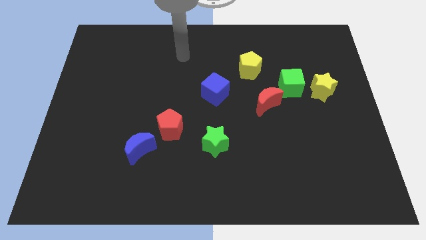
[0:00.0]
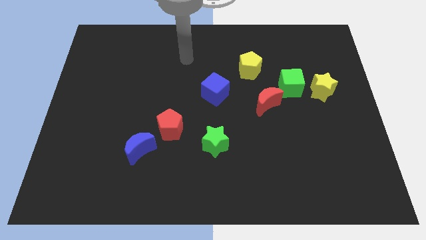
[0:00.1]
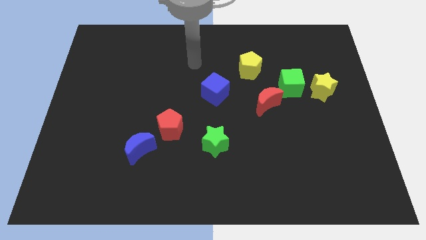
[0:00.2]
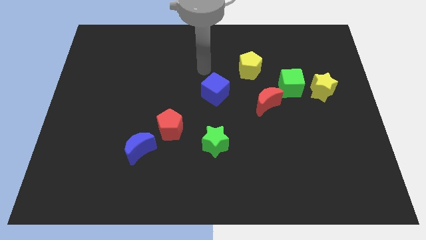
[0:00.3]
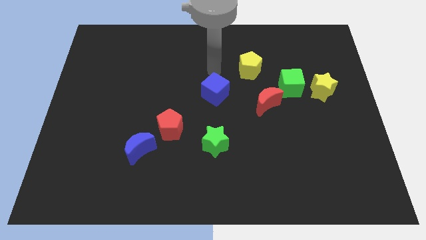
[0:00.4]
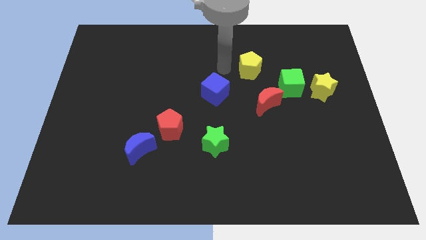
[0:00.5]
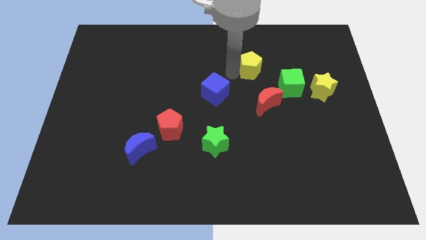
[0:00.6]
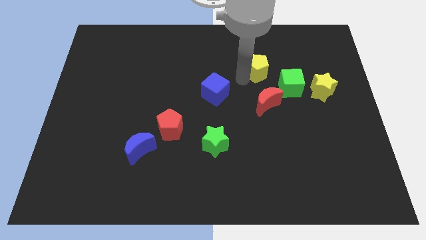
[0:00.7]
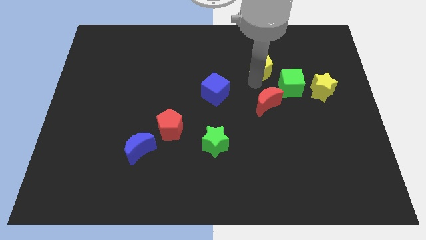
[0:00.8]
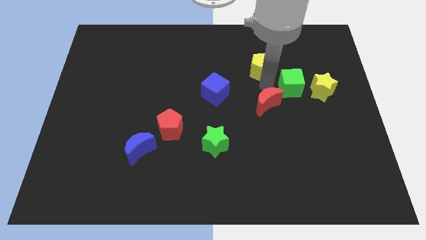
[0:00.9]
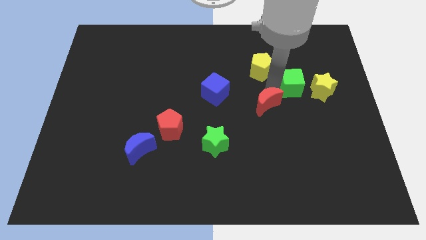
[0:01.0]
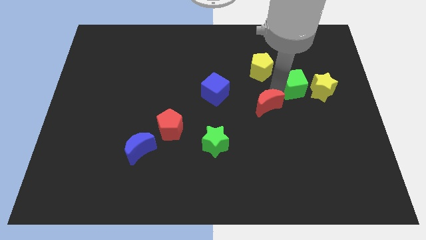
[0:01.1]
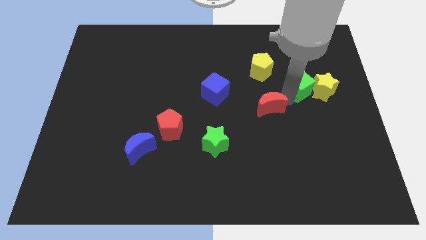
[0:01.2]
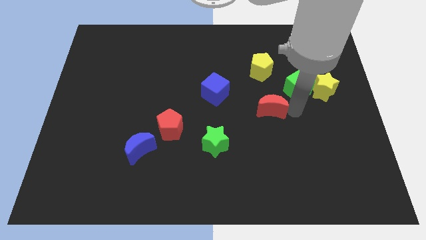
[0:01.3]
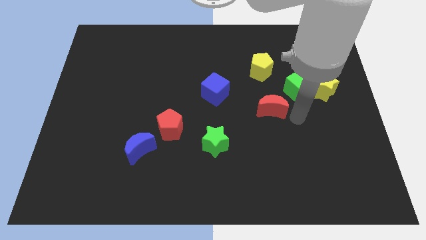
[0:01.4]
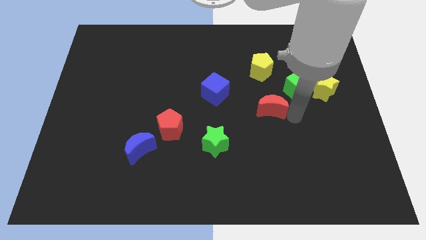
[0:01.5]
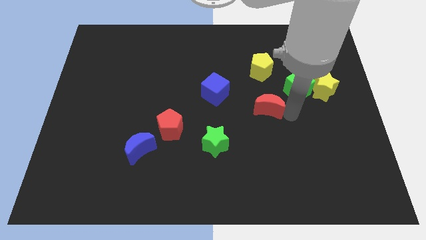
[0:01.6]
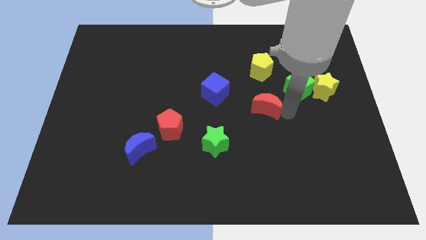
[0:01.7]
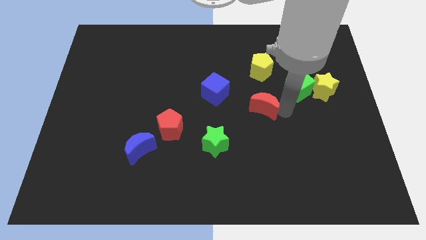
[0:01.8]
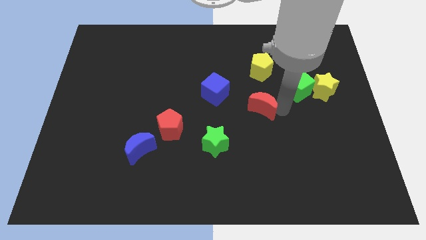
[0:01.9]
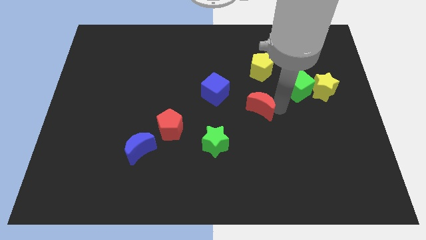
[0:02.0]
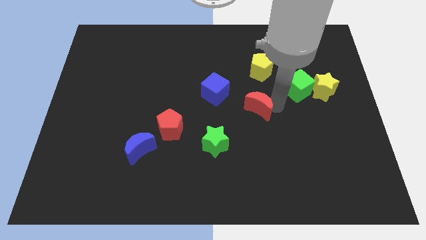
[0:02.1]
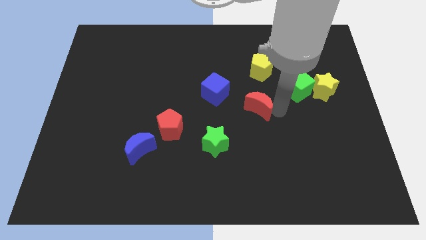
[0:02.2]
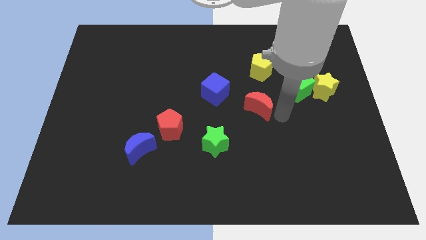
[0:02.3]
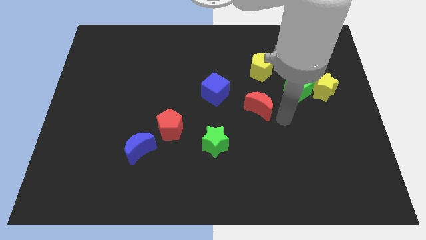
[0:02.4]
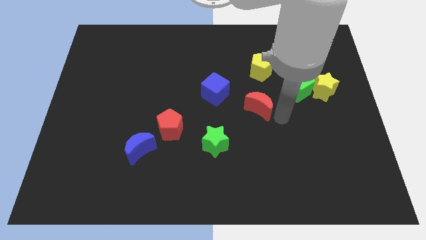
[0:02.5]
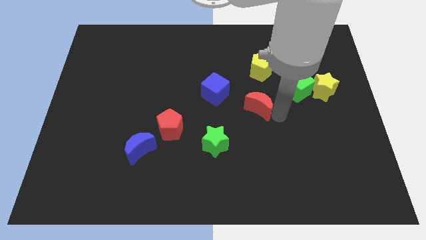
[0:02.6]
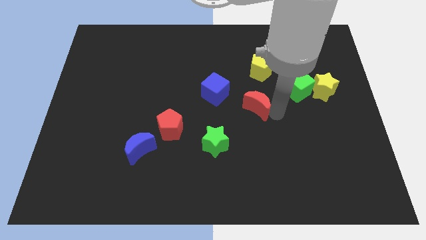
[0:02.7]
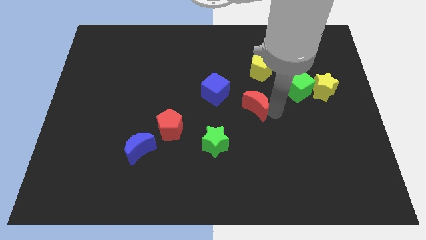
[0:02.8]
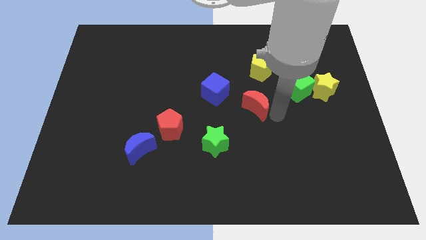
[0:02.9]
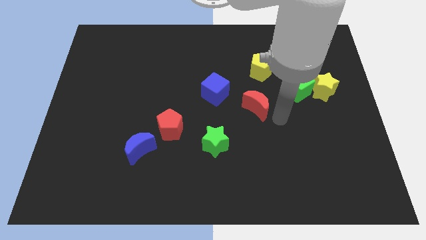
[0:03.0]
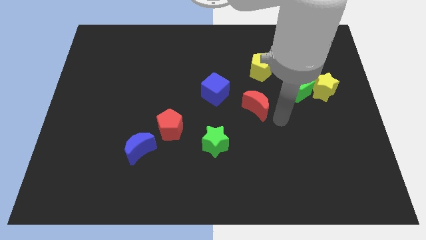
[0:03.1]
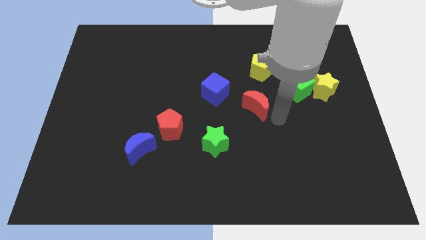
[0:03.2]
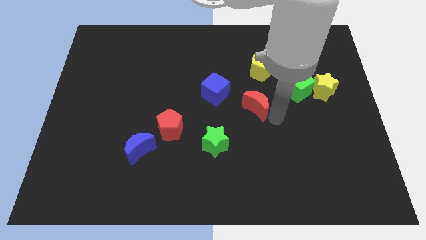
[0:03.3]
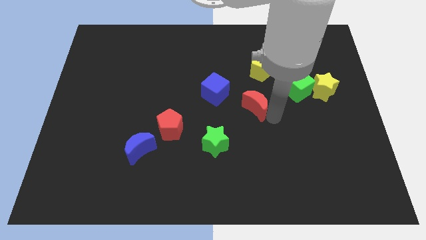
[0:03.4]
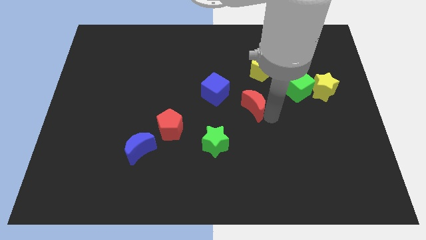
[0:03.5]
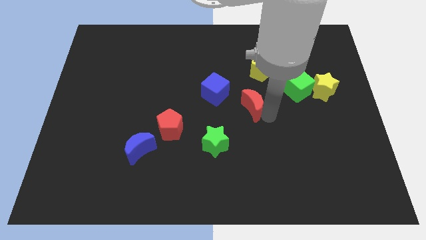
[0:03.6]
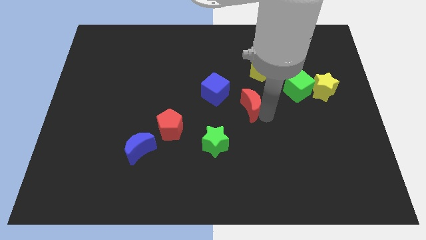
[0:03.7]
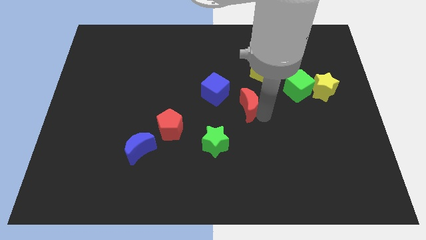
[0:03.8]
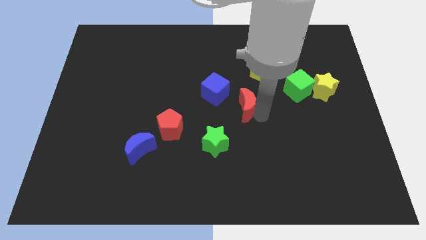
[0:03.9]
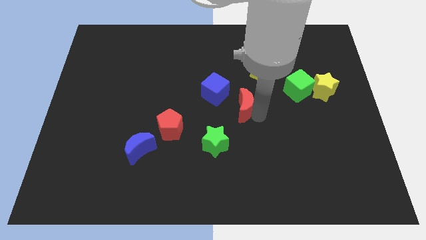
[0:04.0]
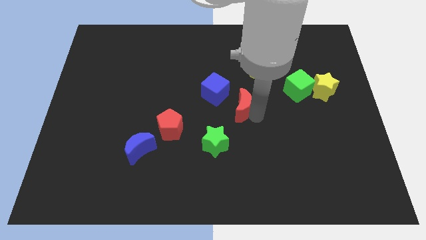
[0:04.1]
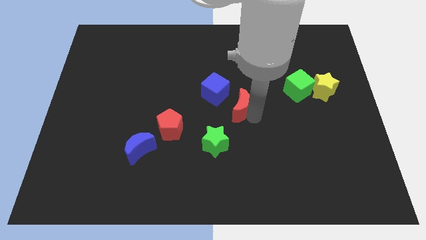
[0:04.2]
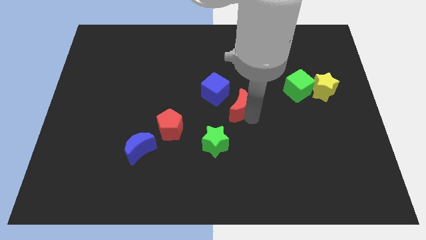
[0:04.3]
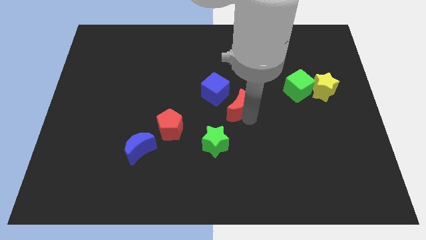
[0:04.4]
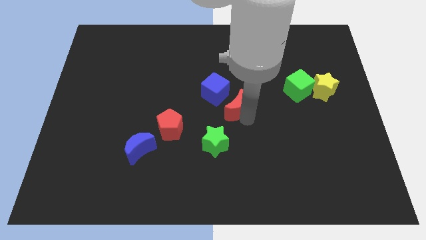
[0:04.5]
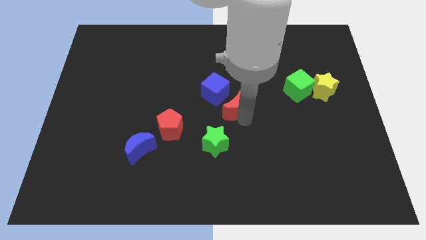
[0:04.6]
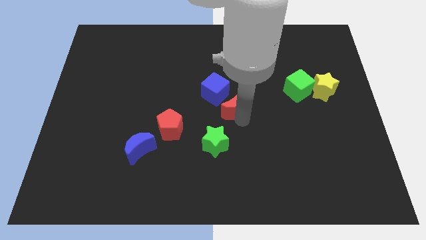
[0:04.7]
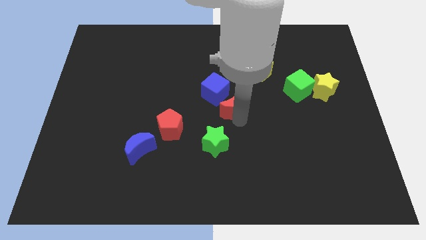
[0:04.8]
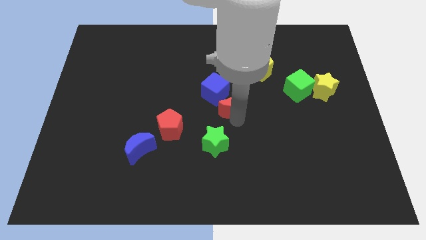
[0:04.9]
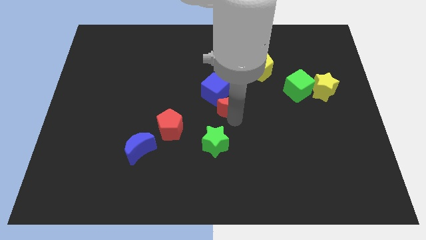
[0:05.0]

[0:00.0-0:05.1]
put the red moon close to the blue cube

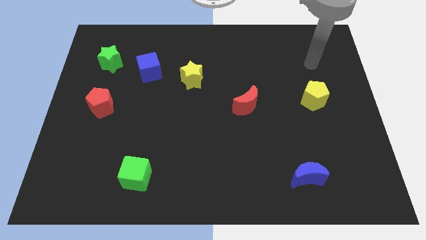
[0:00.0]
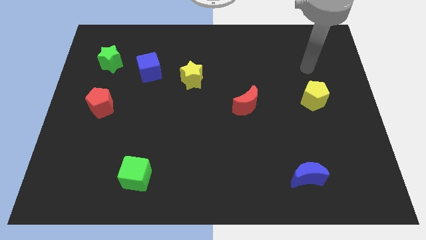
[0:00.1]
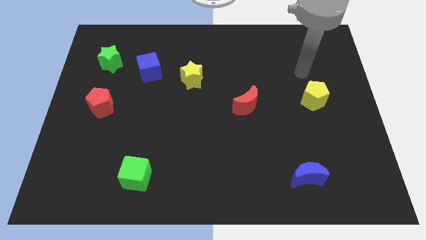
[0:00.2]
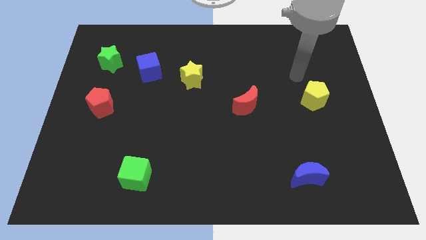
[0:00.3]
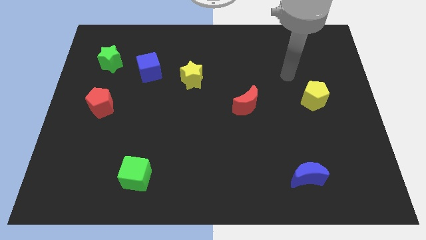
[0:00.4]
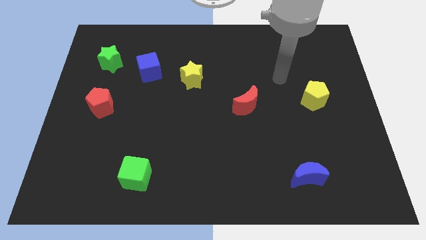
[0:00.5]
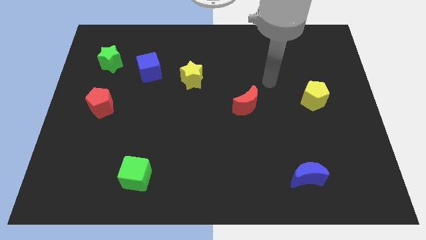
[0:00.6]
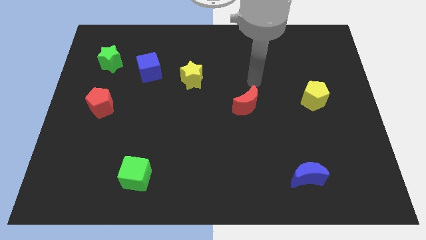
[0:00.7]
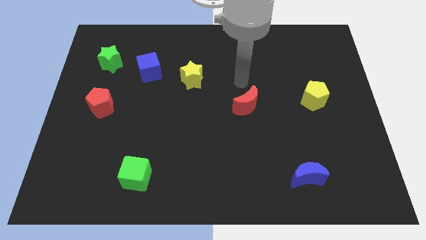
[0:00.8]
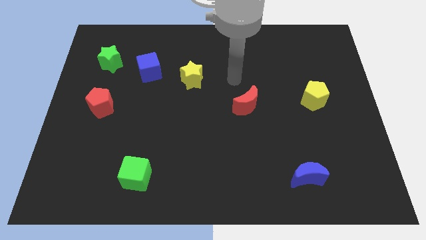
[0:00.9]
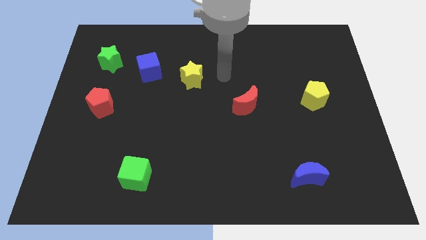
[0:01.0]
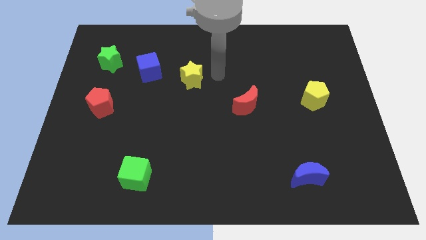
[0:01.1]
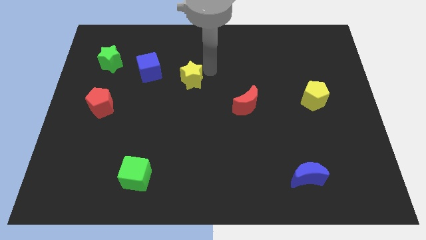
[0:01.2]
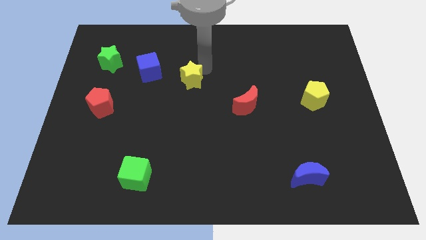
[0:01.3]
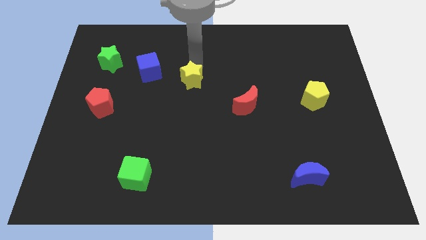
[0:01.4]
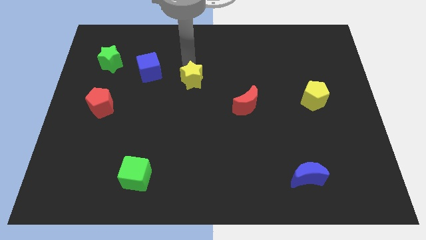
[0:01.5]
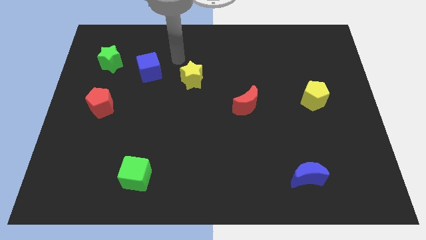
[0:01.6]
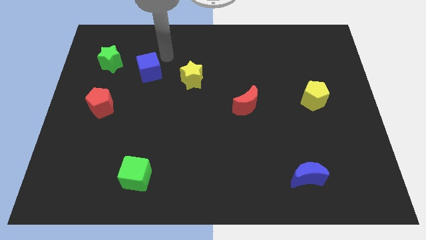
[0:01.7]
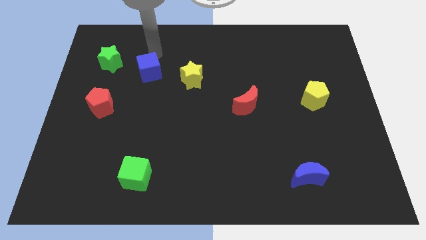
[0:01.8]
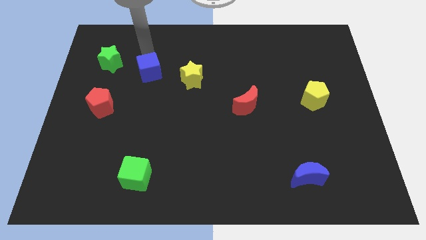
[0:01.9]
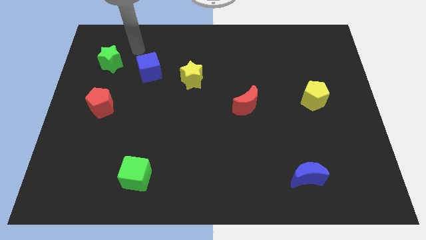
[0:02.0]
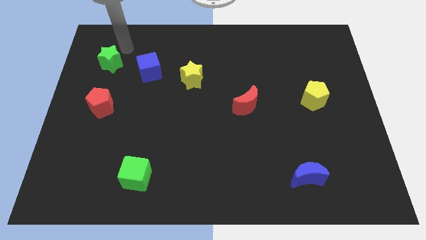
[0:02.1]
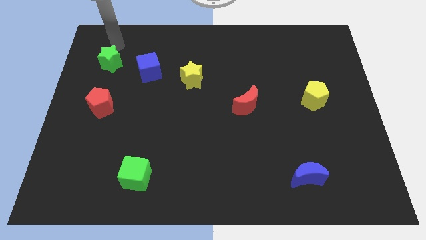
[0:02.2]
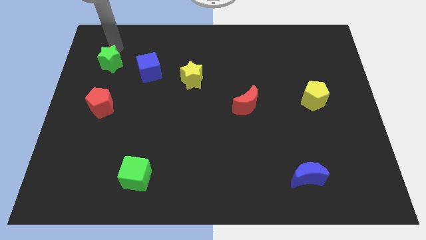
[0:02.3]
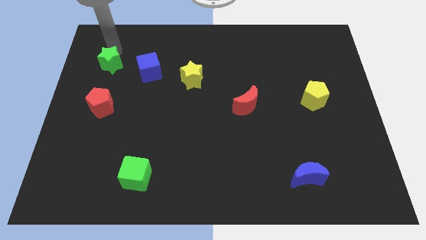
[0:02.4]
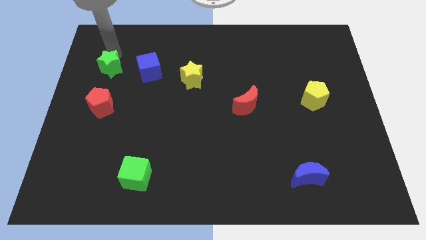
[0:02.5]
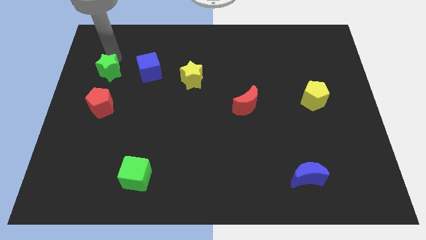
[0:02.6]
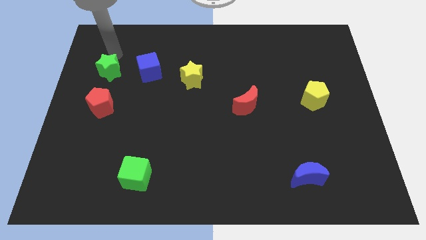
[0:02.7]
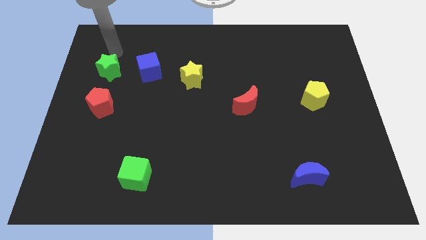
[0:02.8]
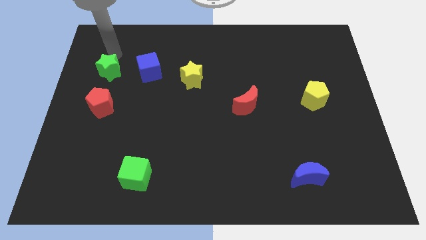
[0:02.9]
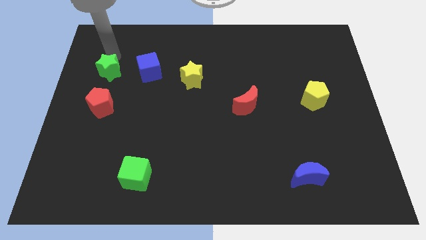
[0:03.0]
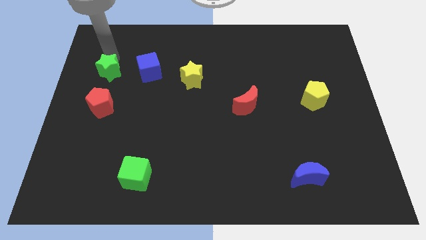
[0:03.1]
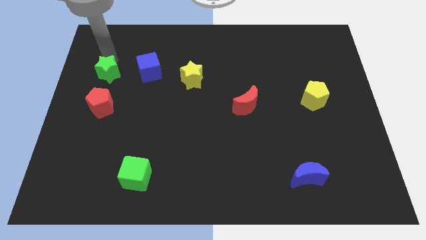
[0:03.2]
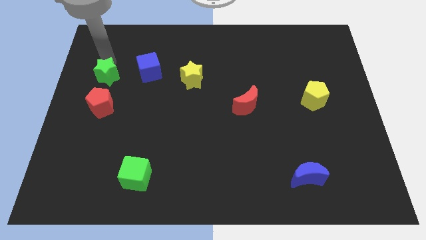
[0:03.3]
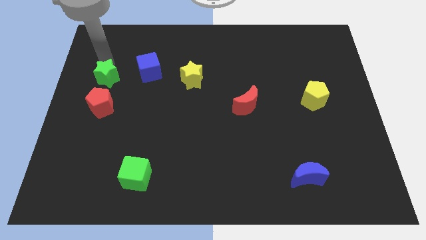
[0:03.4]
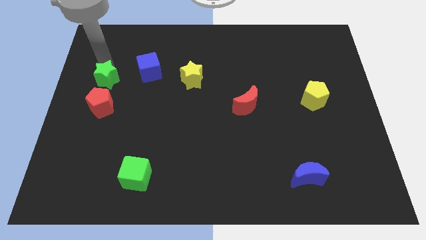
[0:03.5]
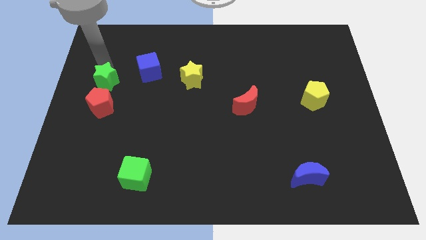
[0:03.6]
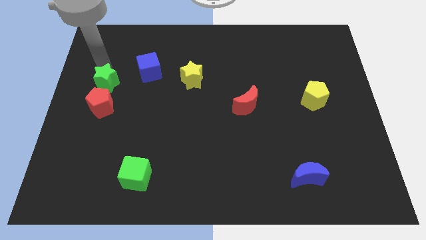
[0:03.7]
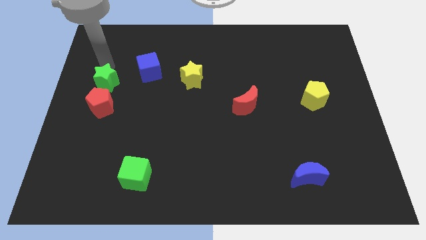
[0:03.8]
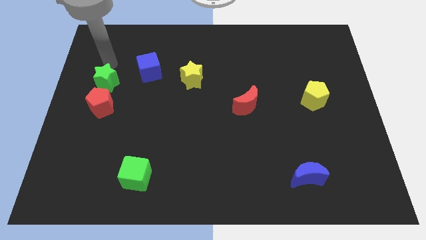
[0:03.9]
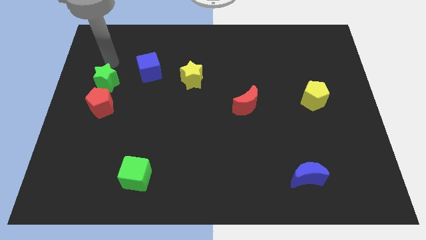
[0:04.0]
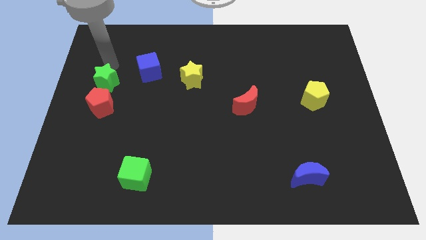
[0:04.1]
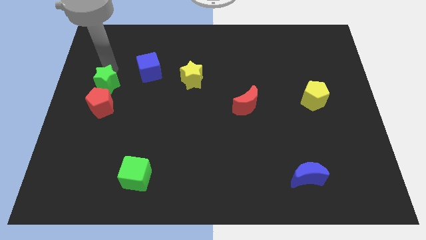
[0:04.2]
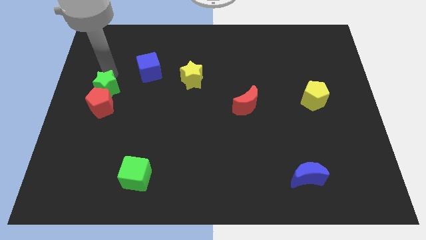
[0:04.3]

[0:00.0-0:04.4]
put the green star to the red pentagon
